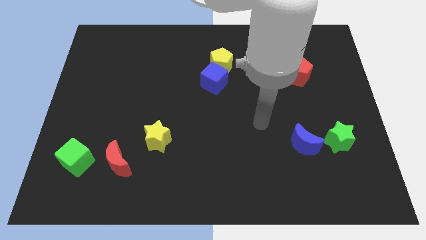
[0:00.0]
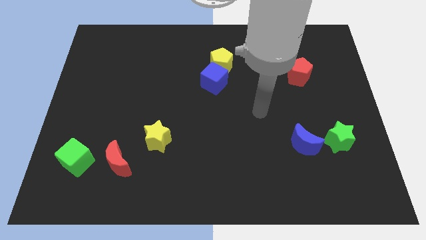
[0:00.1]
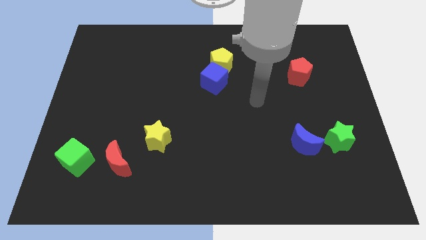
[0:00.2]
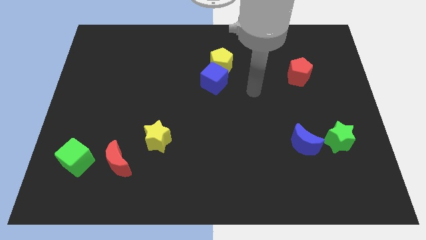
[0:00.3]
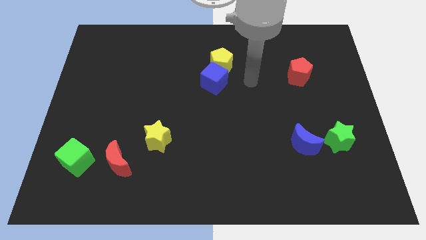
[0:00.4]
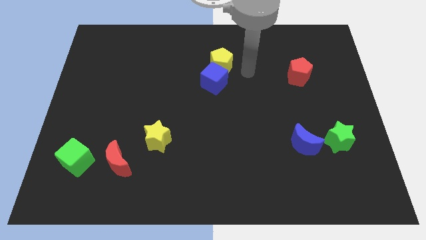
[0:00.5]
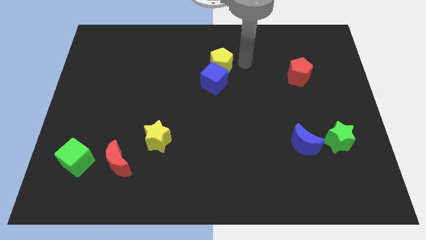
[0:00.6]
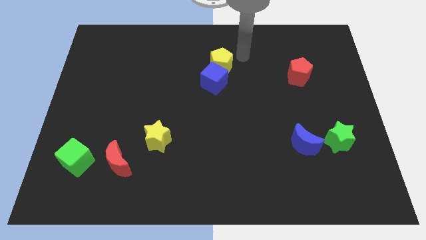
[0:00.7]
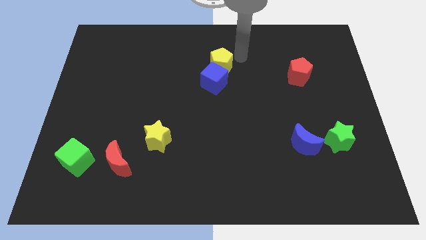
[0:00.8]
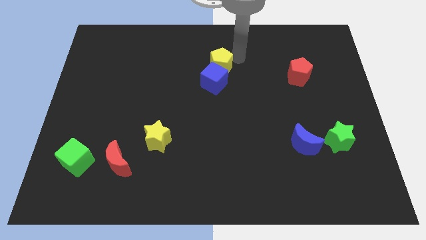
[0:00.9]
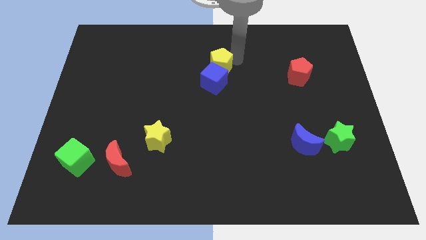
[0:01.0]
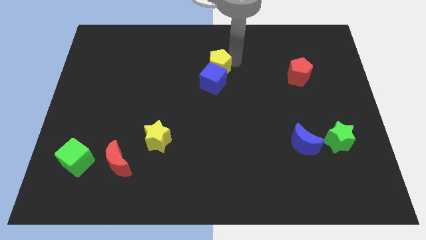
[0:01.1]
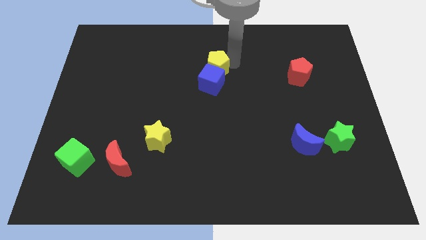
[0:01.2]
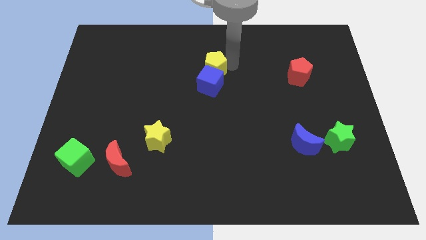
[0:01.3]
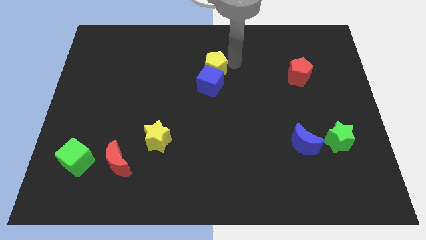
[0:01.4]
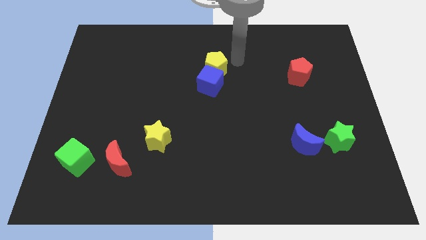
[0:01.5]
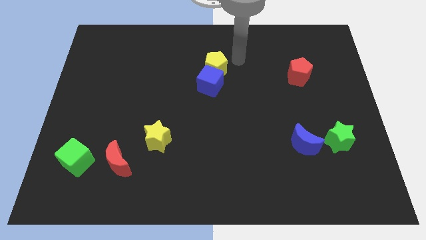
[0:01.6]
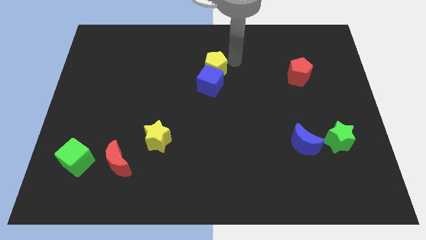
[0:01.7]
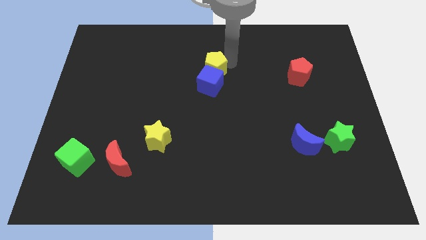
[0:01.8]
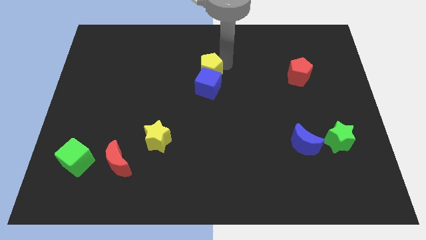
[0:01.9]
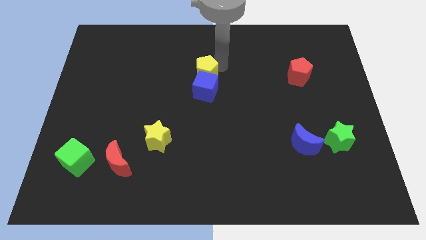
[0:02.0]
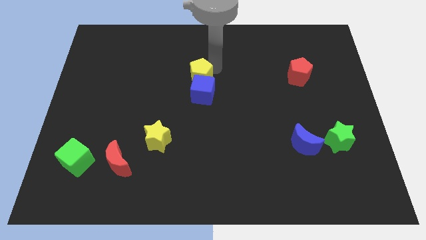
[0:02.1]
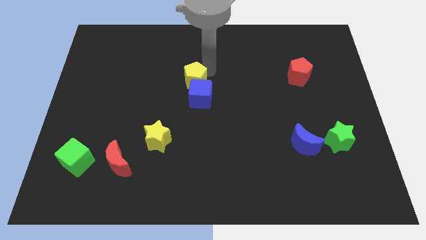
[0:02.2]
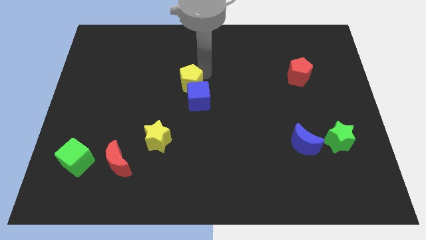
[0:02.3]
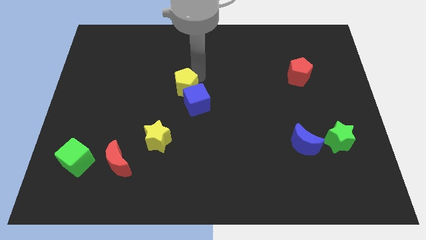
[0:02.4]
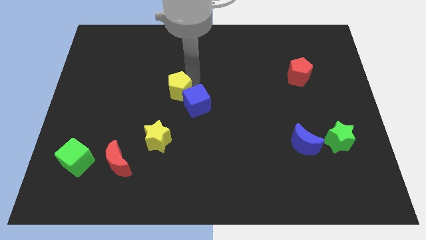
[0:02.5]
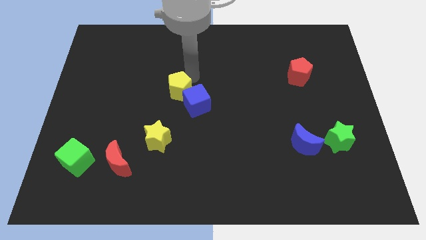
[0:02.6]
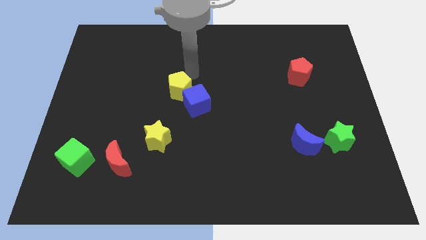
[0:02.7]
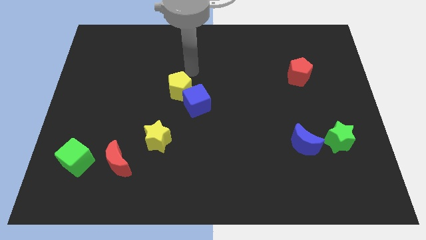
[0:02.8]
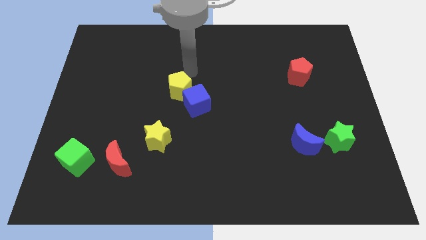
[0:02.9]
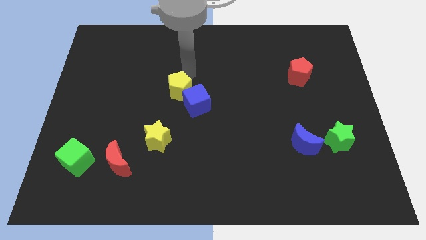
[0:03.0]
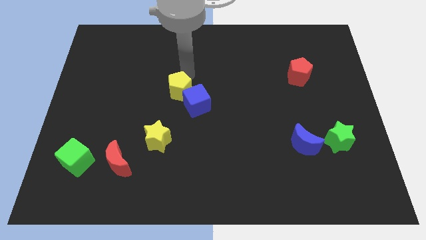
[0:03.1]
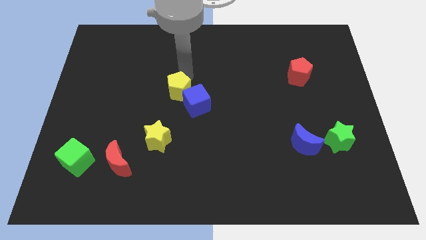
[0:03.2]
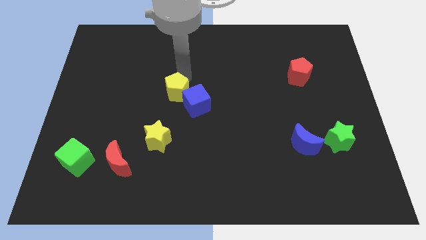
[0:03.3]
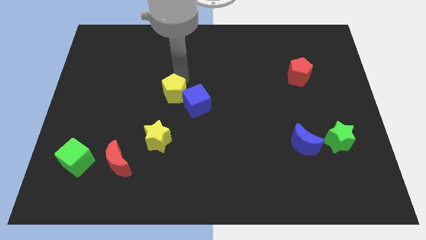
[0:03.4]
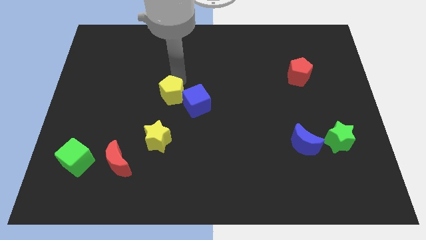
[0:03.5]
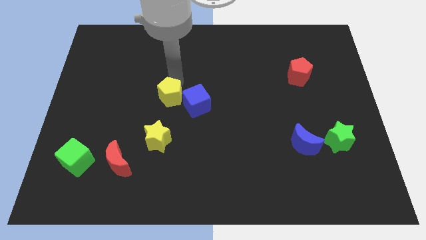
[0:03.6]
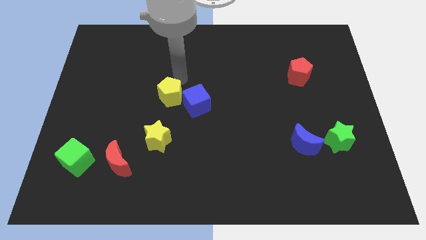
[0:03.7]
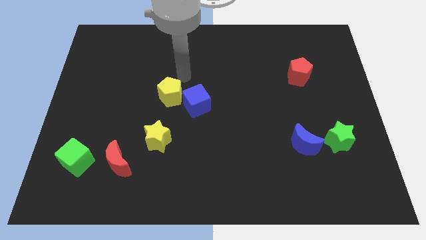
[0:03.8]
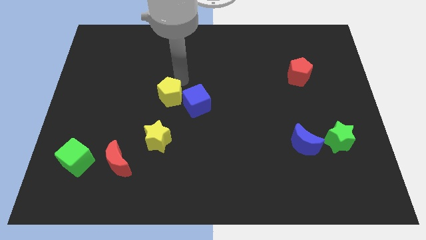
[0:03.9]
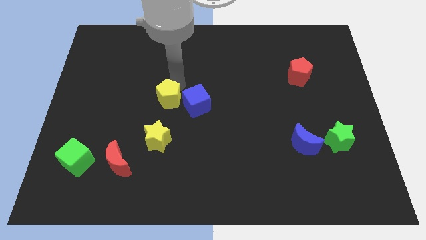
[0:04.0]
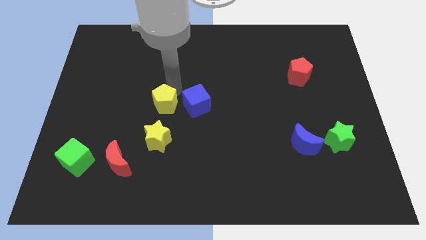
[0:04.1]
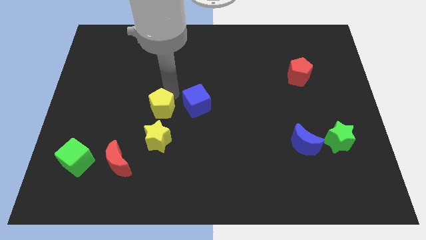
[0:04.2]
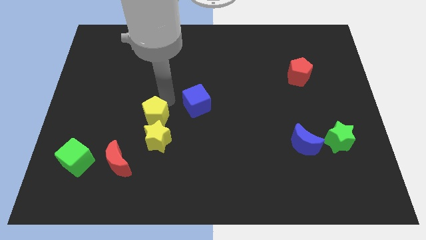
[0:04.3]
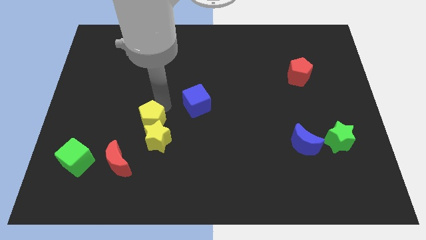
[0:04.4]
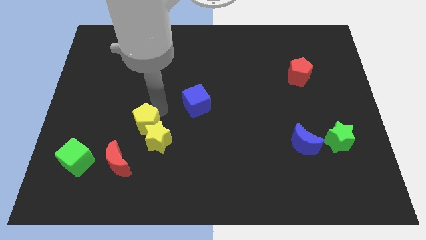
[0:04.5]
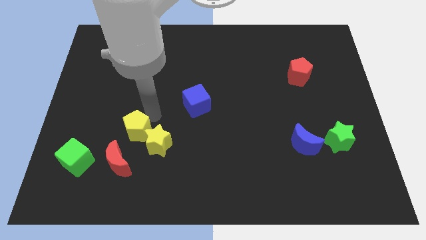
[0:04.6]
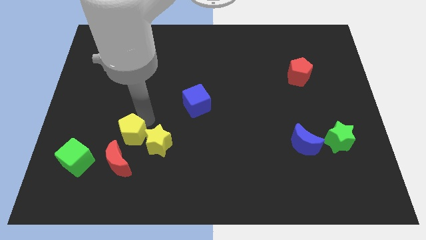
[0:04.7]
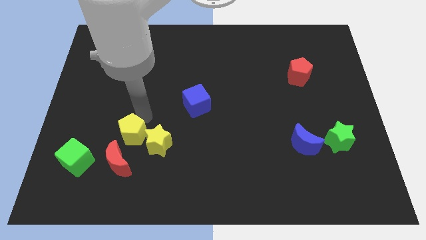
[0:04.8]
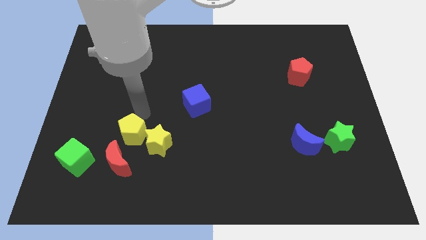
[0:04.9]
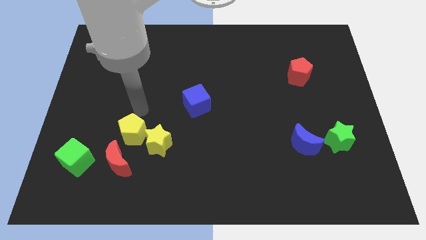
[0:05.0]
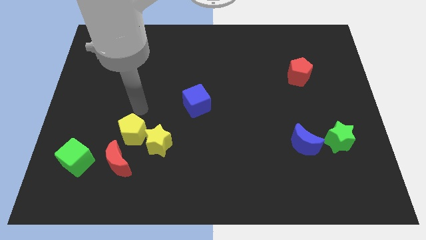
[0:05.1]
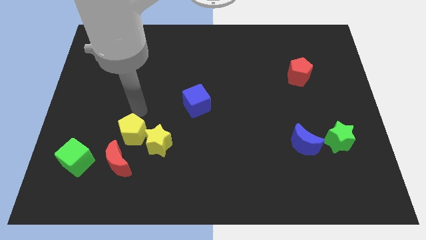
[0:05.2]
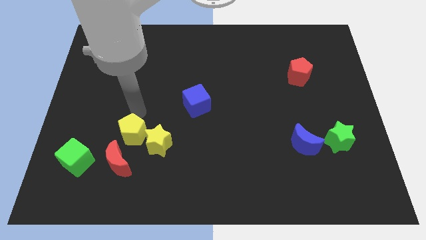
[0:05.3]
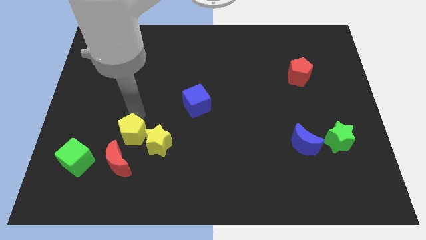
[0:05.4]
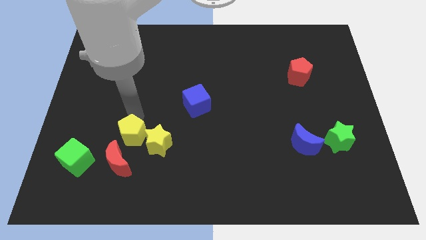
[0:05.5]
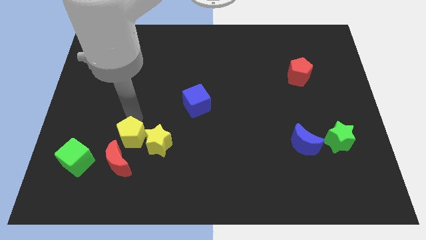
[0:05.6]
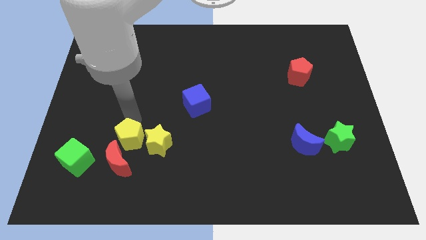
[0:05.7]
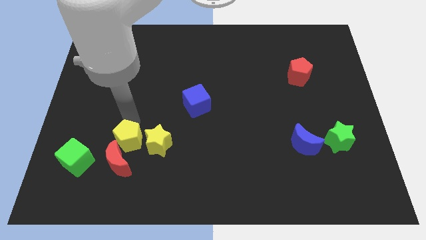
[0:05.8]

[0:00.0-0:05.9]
move the yellow pentagon close to the red moon

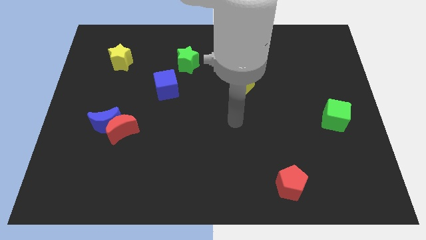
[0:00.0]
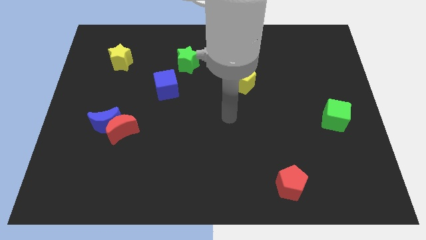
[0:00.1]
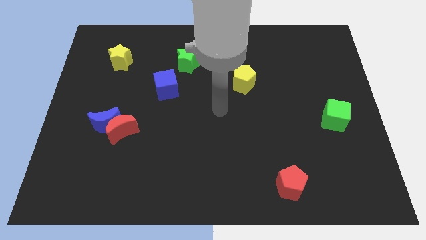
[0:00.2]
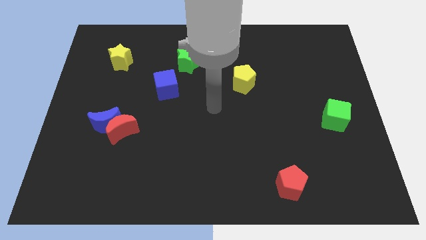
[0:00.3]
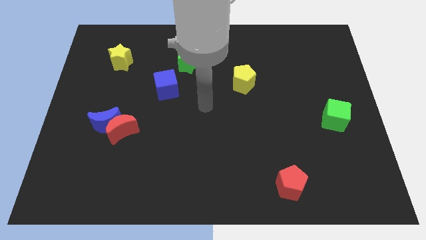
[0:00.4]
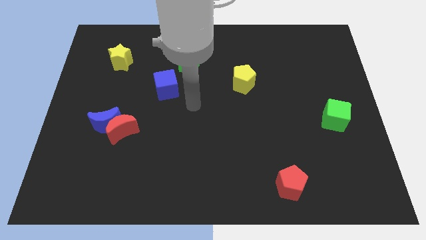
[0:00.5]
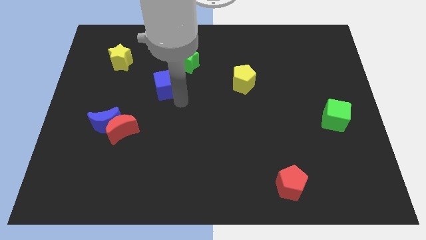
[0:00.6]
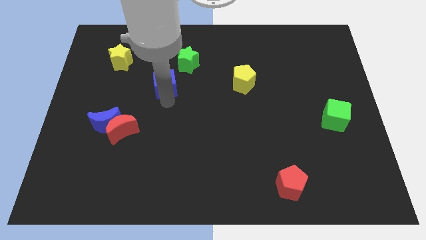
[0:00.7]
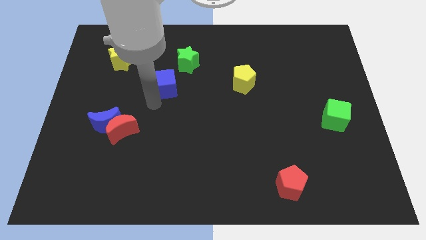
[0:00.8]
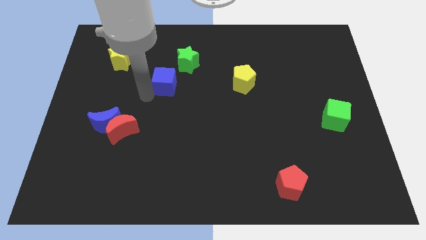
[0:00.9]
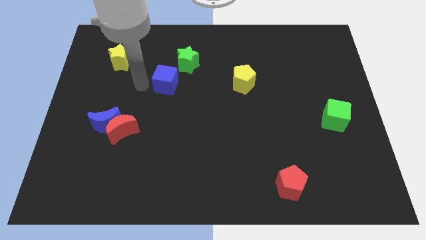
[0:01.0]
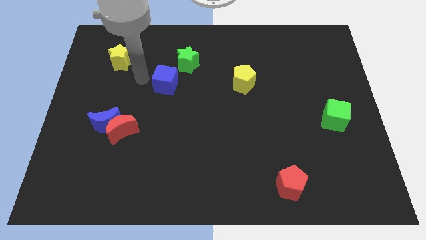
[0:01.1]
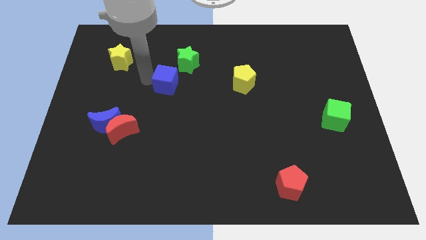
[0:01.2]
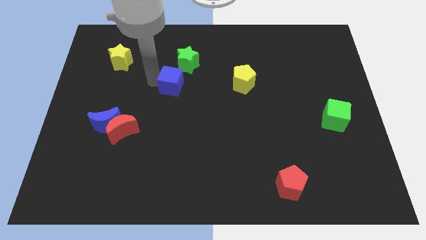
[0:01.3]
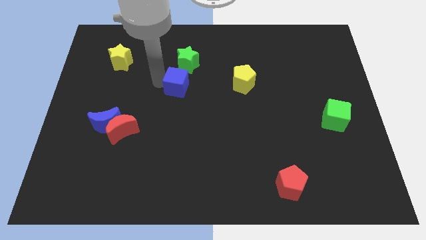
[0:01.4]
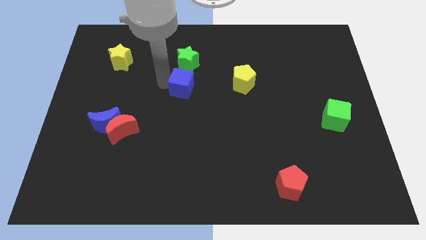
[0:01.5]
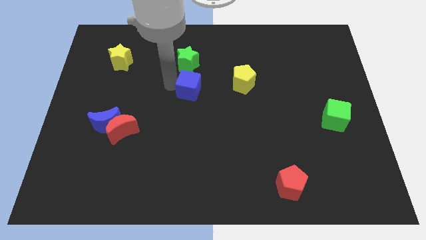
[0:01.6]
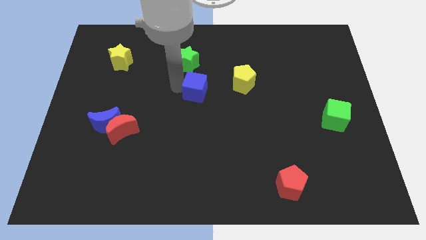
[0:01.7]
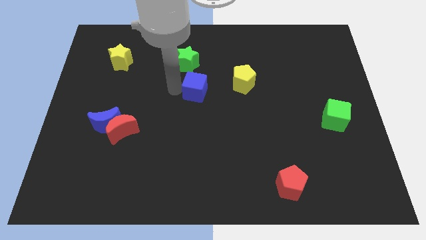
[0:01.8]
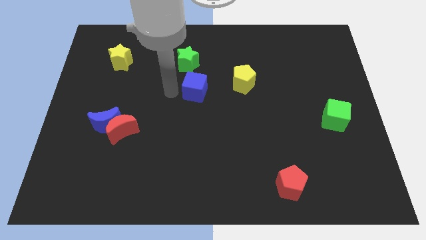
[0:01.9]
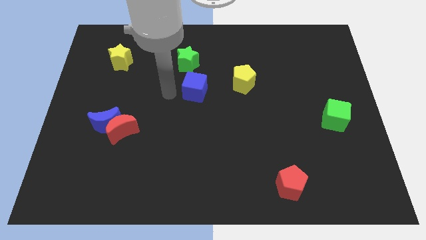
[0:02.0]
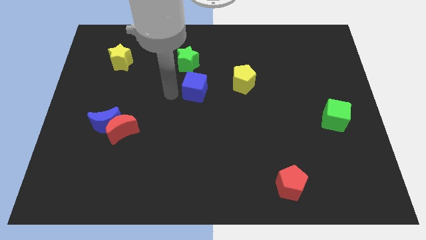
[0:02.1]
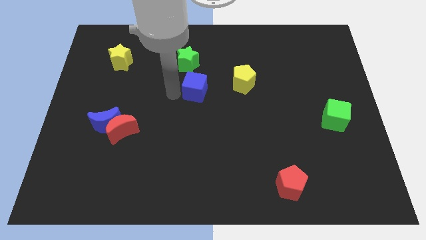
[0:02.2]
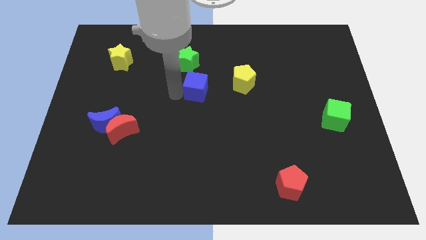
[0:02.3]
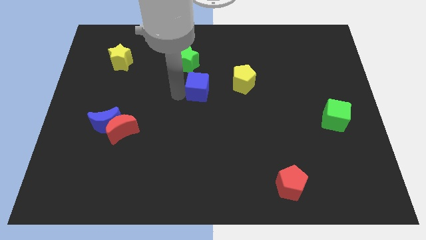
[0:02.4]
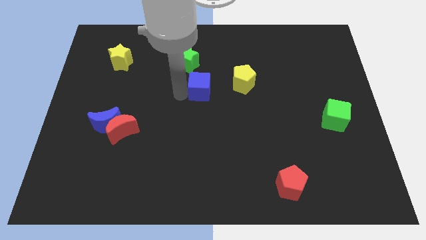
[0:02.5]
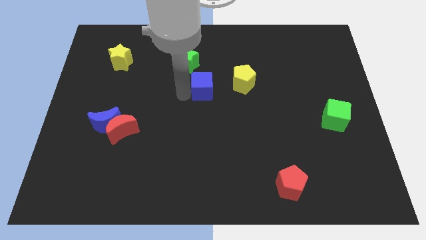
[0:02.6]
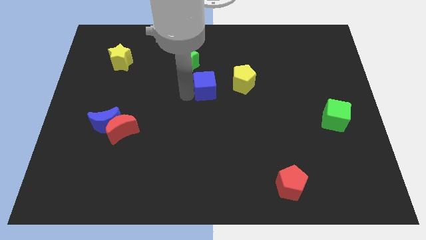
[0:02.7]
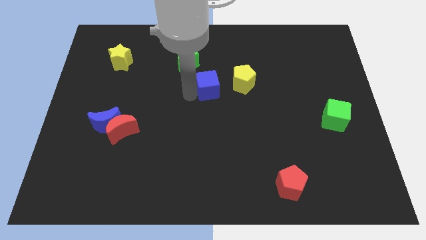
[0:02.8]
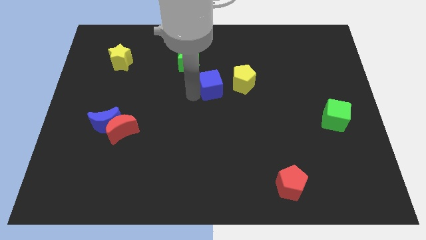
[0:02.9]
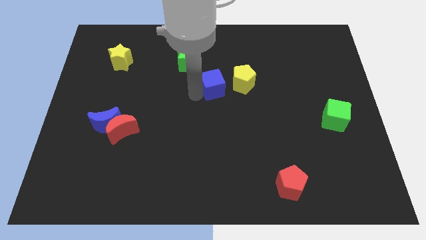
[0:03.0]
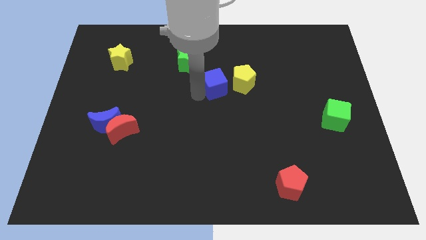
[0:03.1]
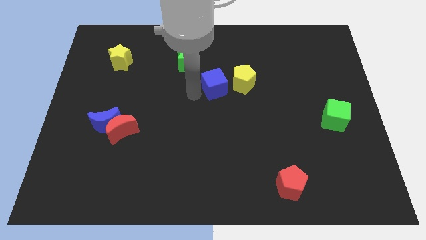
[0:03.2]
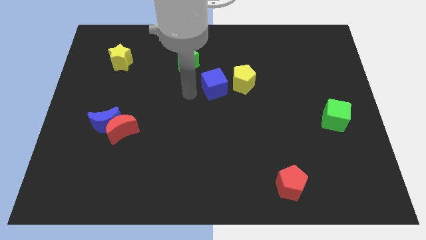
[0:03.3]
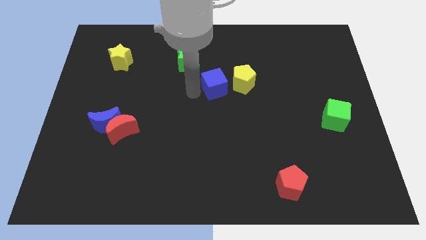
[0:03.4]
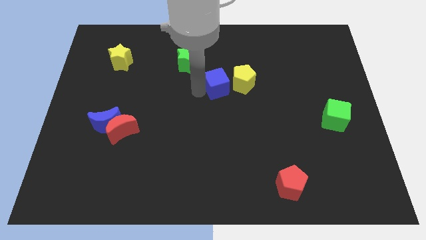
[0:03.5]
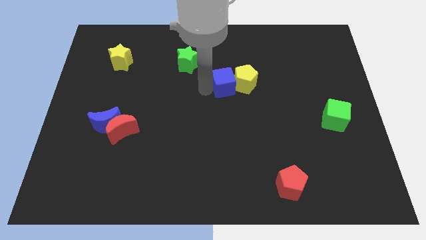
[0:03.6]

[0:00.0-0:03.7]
put the blue cube towards the yellow pentagon
